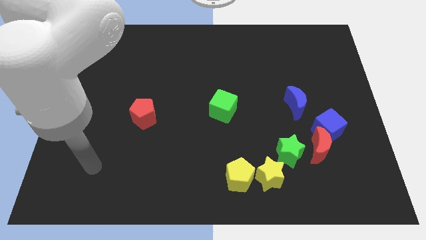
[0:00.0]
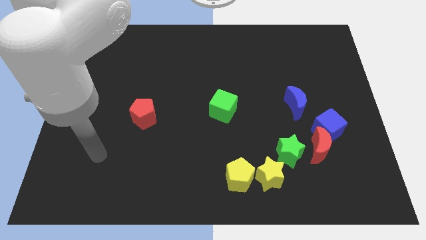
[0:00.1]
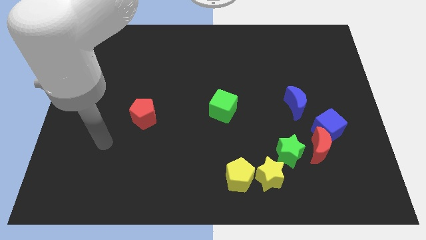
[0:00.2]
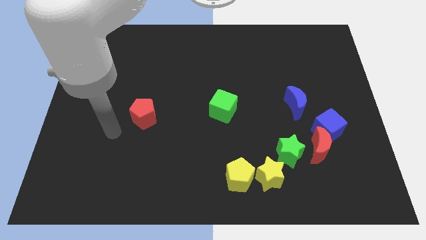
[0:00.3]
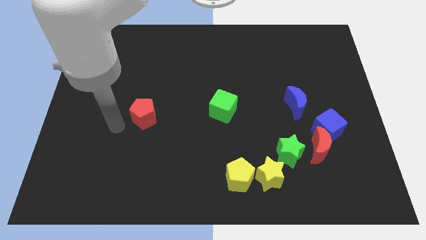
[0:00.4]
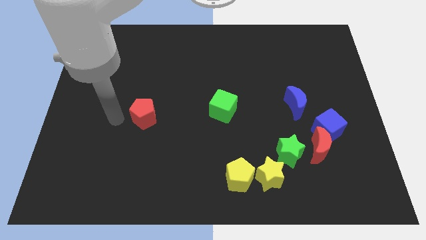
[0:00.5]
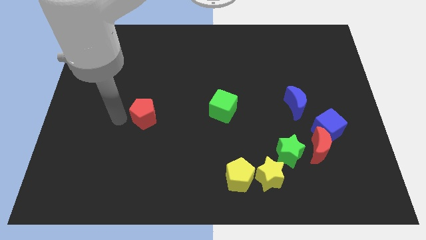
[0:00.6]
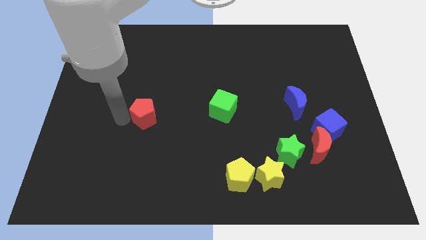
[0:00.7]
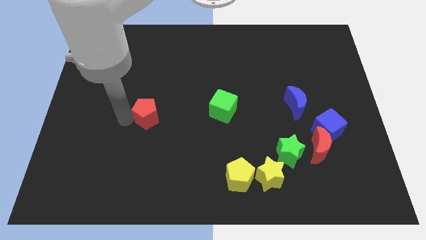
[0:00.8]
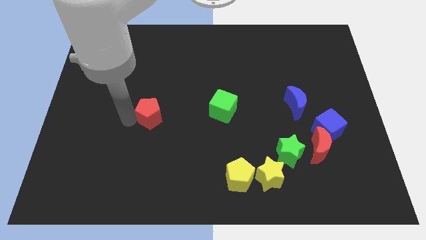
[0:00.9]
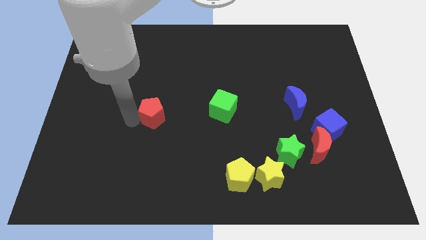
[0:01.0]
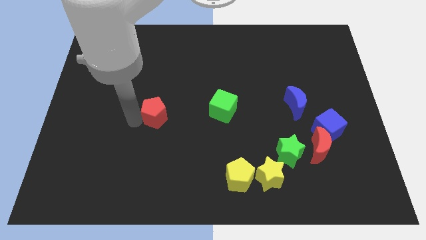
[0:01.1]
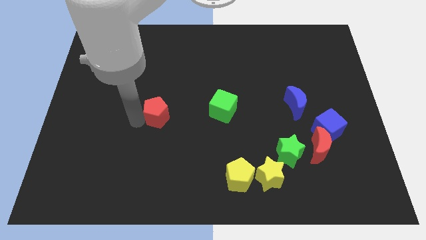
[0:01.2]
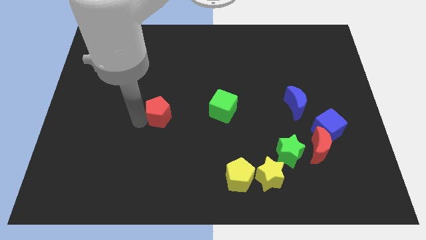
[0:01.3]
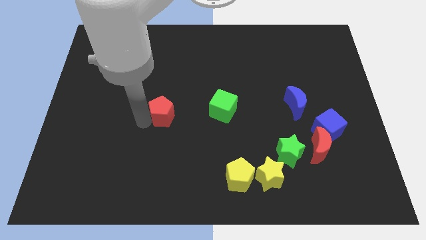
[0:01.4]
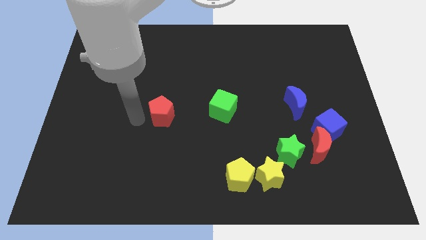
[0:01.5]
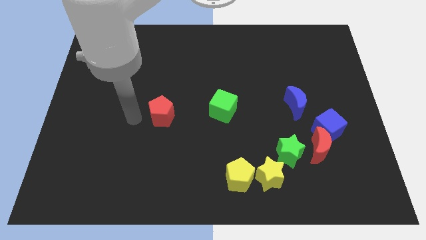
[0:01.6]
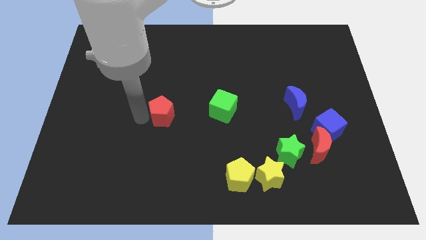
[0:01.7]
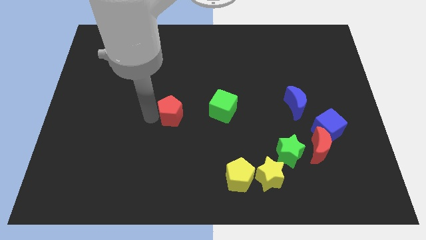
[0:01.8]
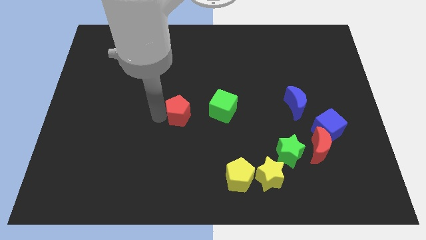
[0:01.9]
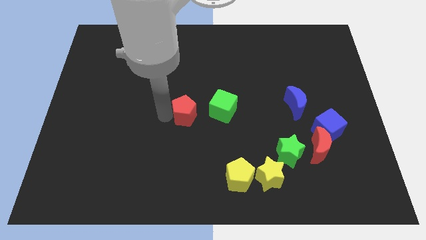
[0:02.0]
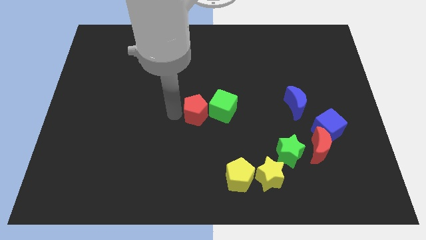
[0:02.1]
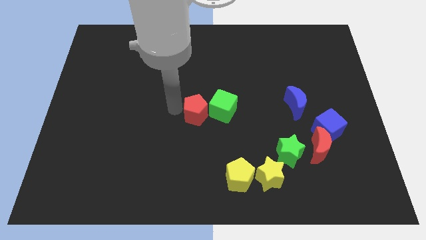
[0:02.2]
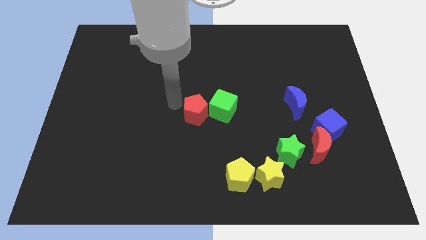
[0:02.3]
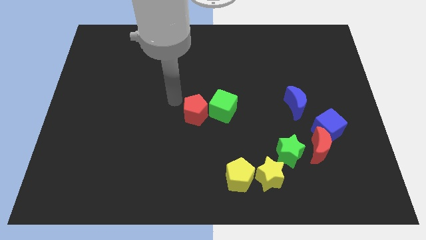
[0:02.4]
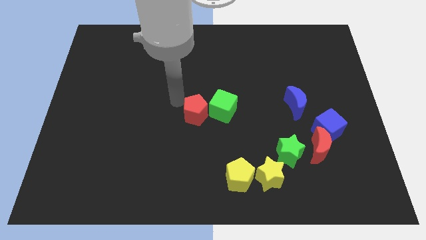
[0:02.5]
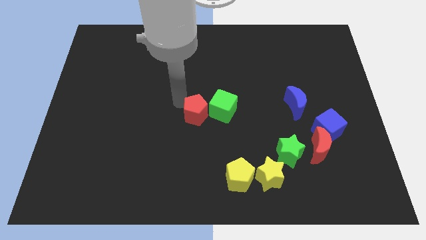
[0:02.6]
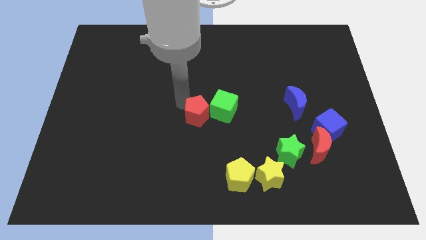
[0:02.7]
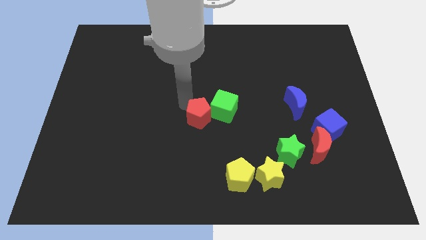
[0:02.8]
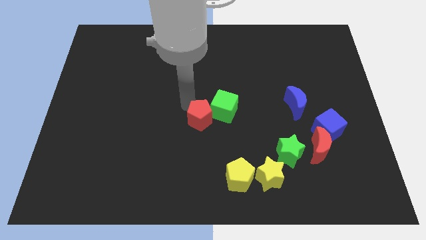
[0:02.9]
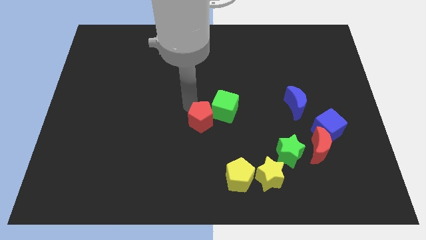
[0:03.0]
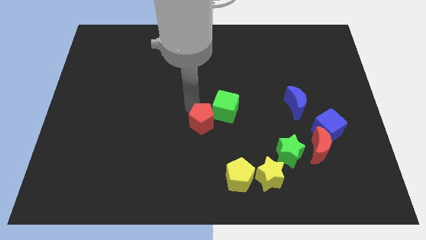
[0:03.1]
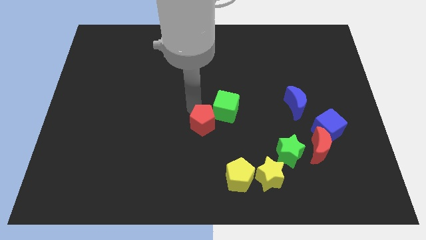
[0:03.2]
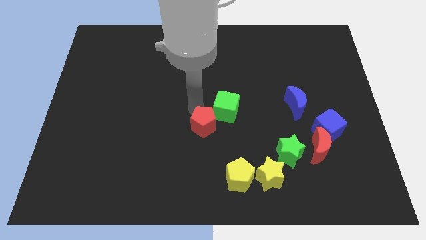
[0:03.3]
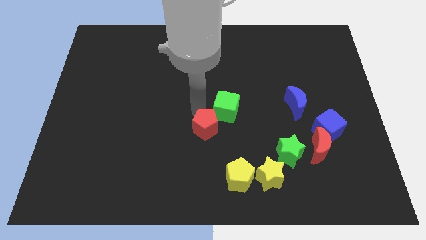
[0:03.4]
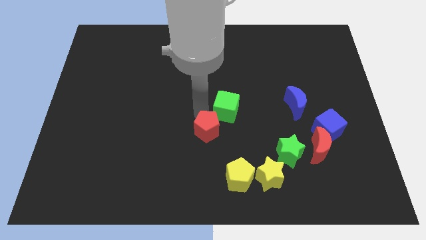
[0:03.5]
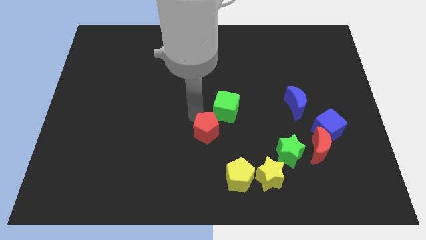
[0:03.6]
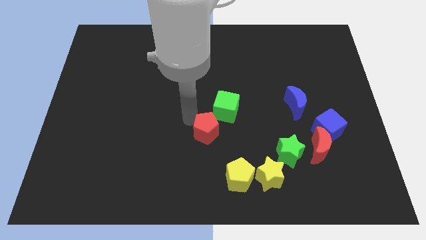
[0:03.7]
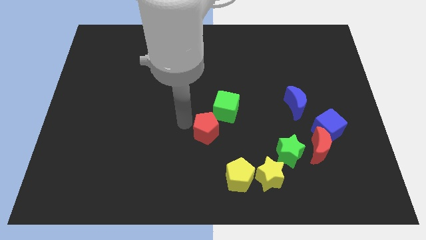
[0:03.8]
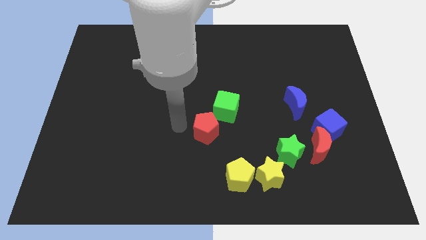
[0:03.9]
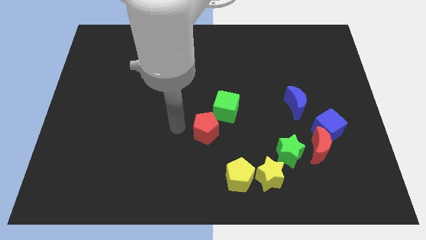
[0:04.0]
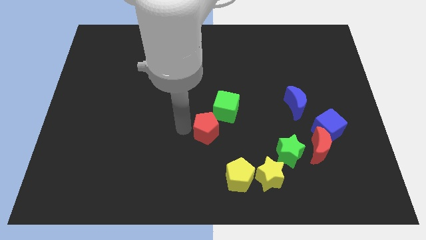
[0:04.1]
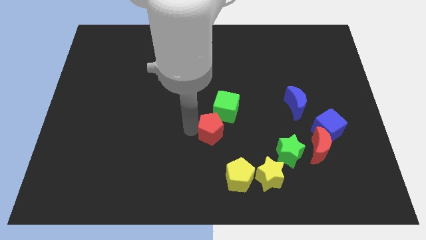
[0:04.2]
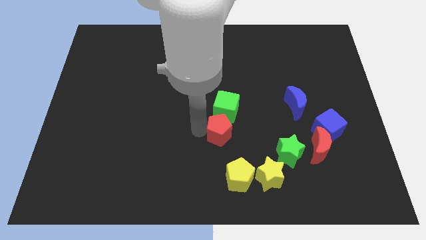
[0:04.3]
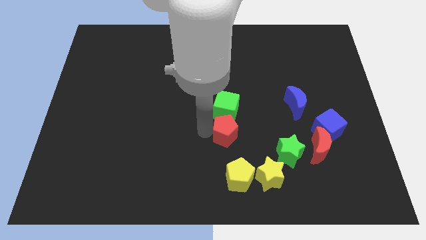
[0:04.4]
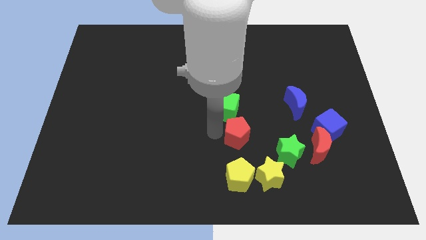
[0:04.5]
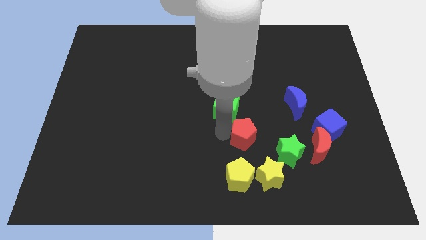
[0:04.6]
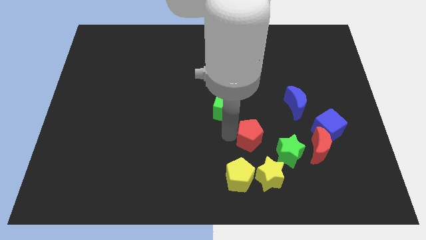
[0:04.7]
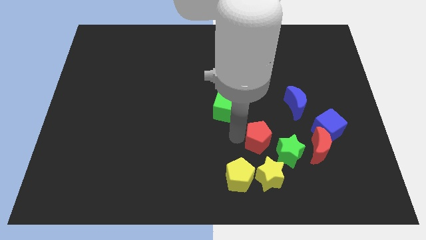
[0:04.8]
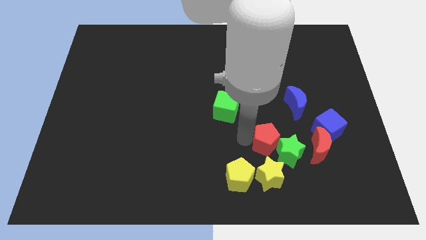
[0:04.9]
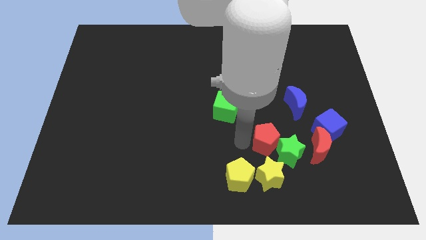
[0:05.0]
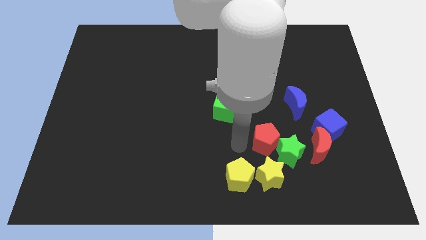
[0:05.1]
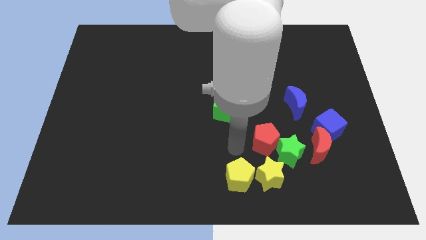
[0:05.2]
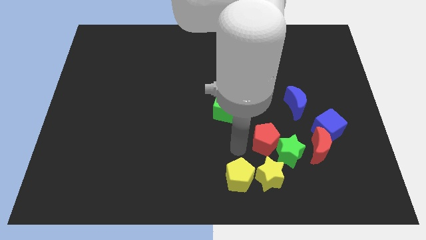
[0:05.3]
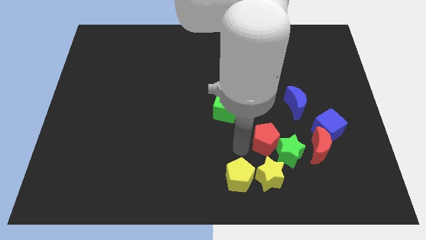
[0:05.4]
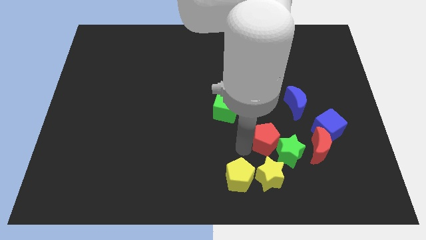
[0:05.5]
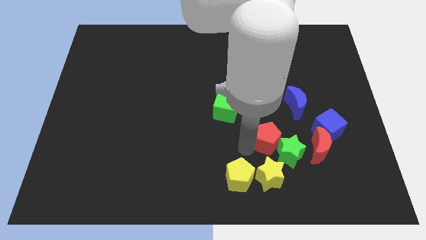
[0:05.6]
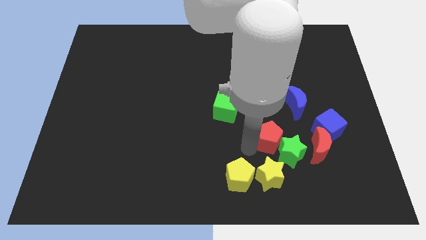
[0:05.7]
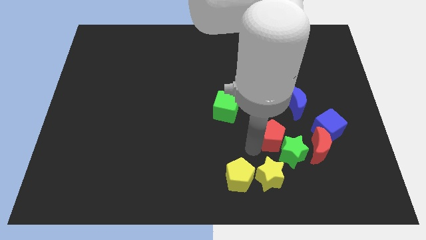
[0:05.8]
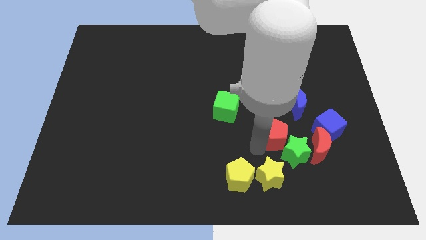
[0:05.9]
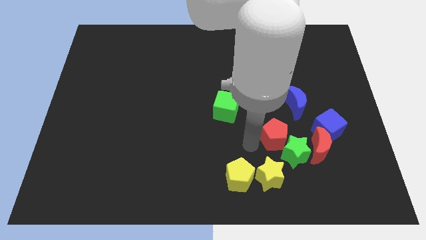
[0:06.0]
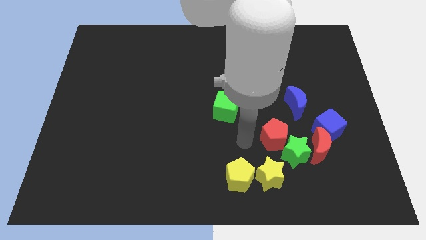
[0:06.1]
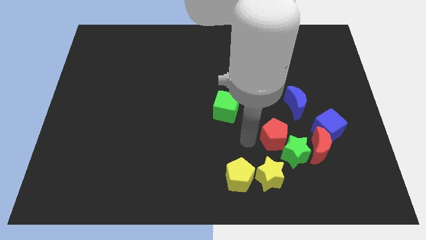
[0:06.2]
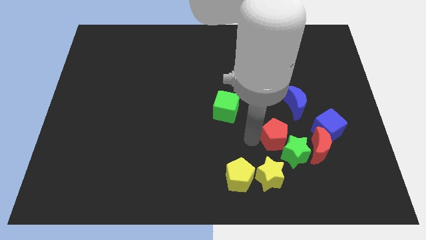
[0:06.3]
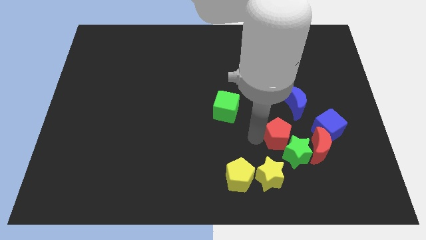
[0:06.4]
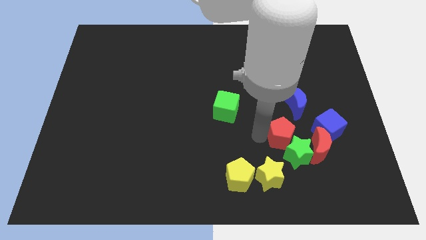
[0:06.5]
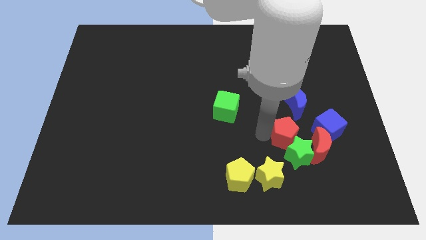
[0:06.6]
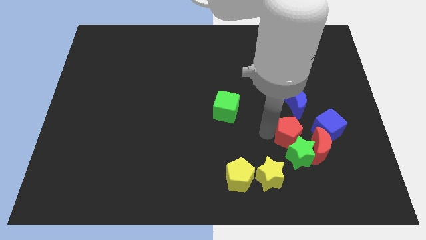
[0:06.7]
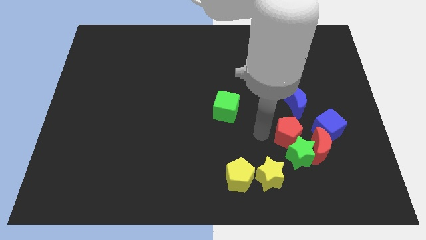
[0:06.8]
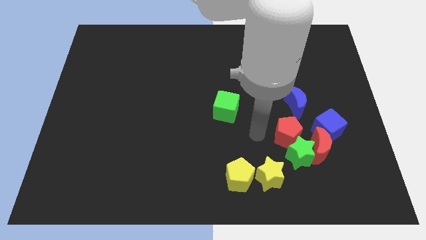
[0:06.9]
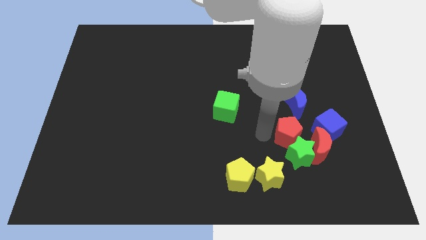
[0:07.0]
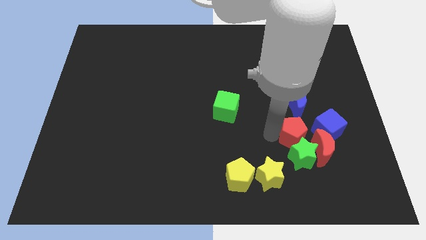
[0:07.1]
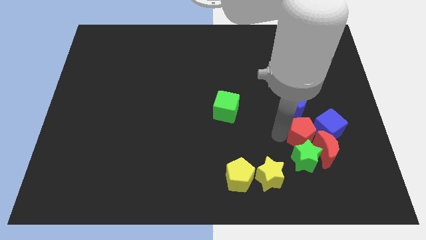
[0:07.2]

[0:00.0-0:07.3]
slide the red pentagon to the top right side of the green star
